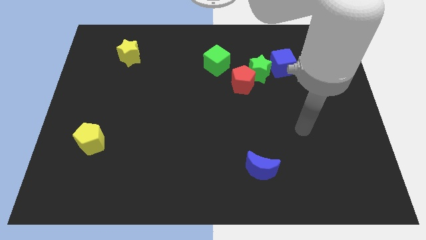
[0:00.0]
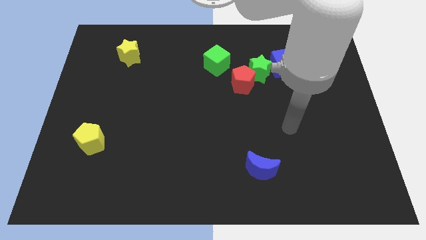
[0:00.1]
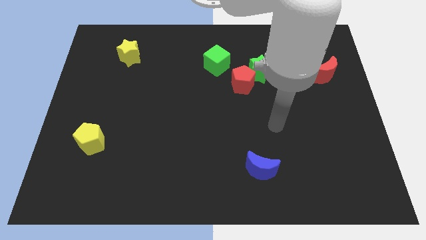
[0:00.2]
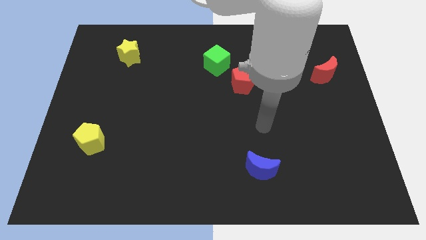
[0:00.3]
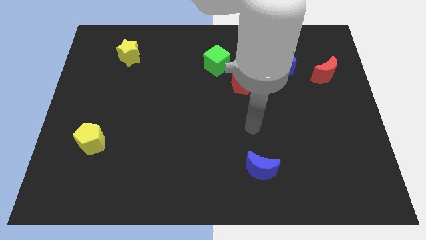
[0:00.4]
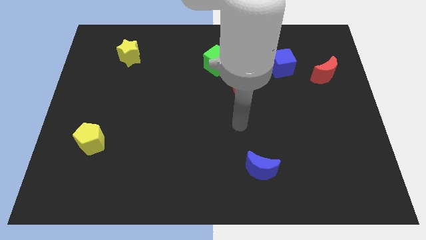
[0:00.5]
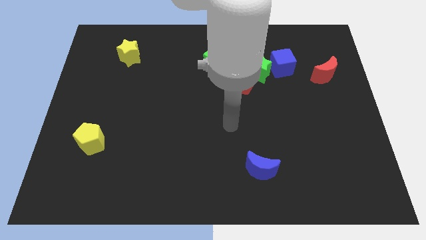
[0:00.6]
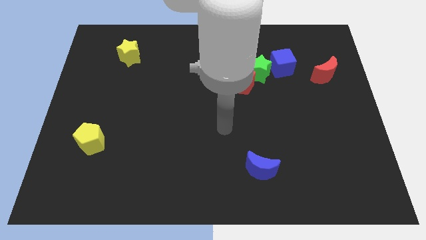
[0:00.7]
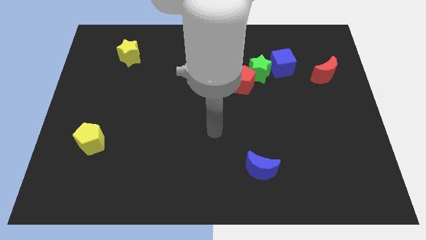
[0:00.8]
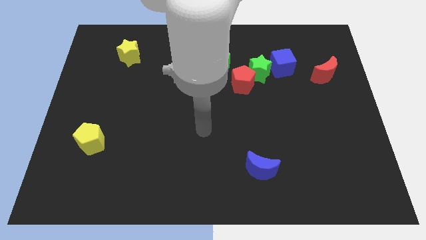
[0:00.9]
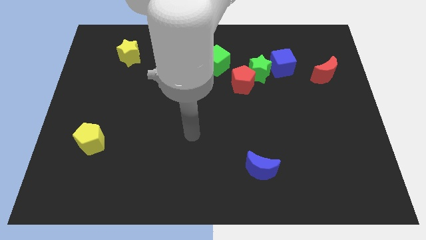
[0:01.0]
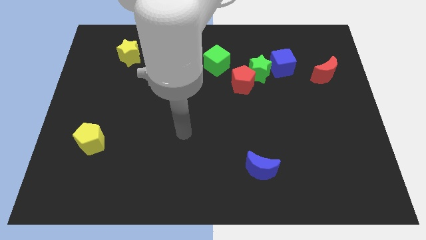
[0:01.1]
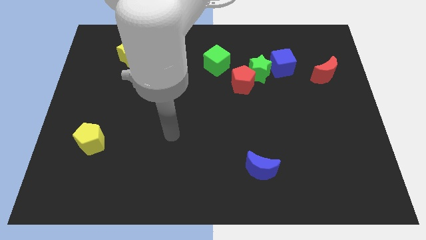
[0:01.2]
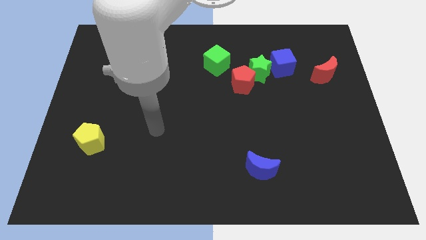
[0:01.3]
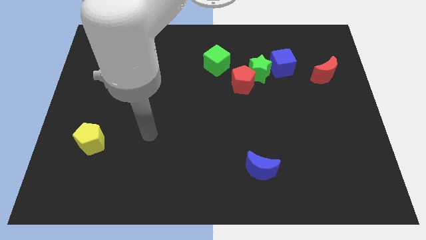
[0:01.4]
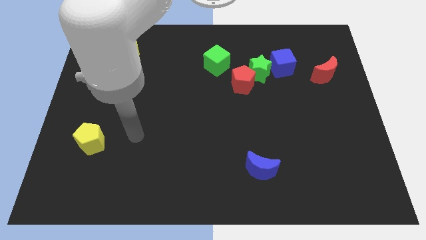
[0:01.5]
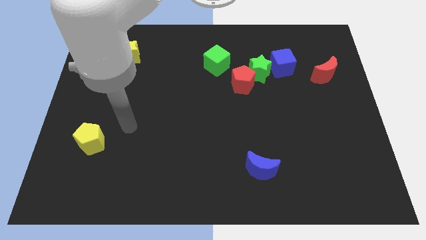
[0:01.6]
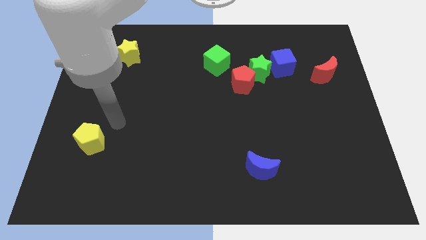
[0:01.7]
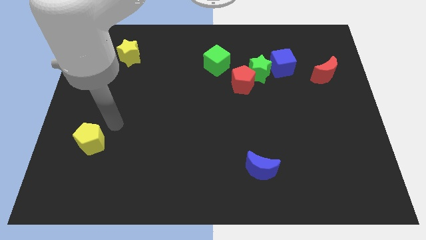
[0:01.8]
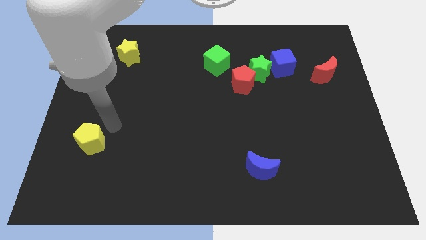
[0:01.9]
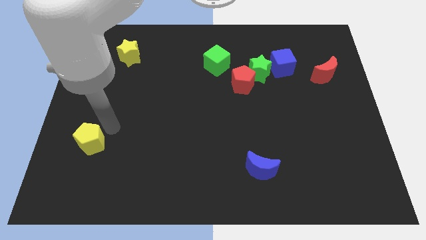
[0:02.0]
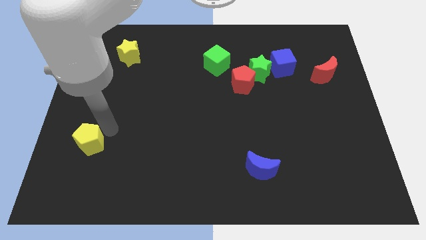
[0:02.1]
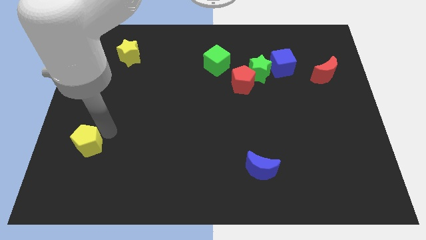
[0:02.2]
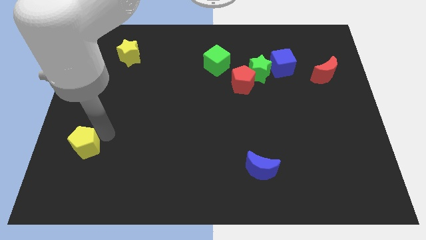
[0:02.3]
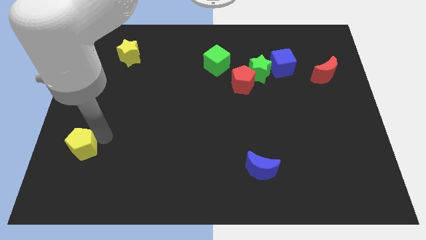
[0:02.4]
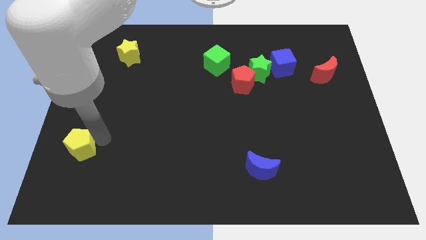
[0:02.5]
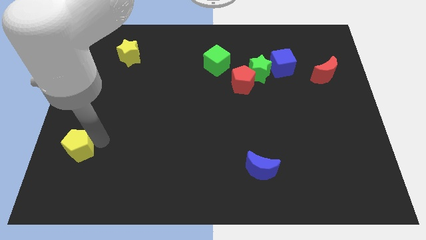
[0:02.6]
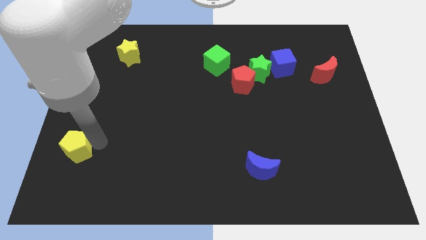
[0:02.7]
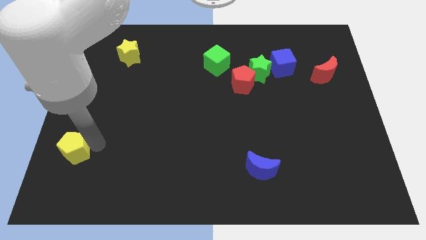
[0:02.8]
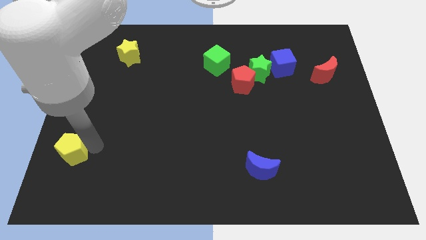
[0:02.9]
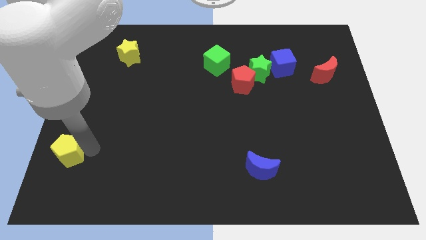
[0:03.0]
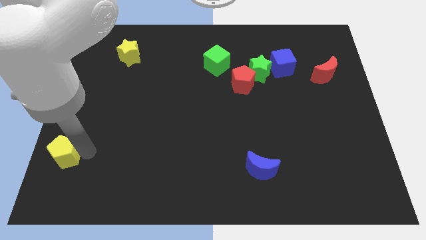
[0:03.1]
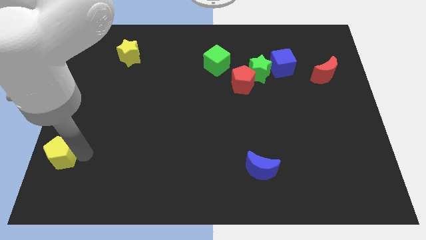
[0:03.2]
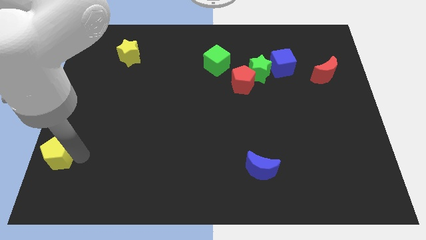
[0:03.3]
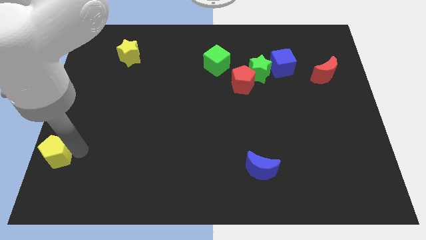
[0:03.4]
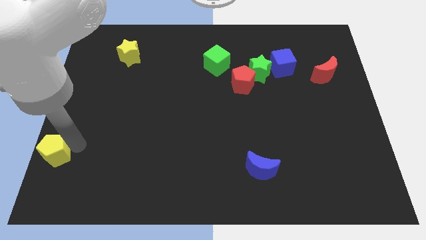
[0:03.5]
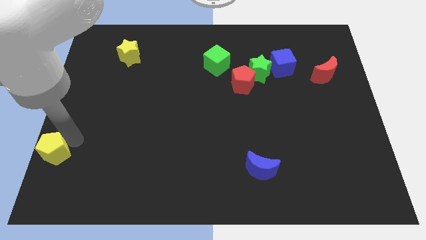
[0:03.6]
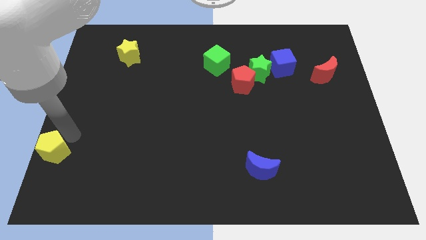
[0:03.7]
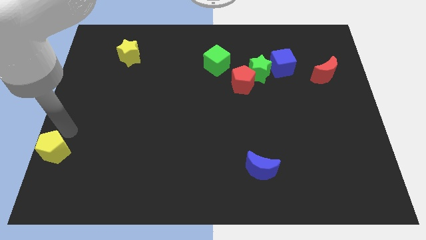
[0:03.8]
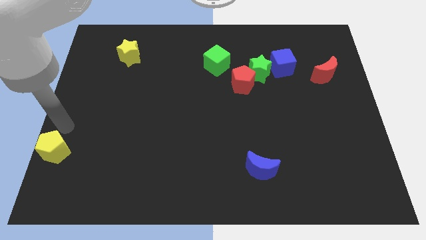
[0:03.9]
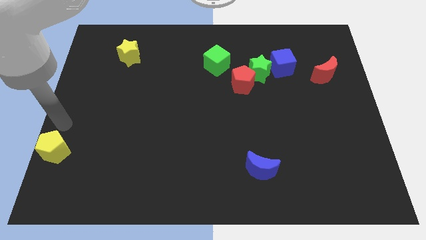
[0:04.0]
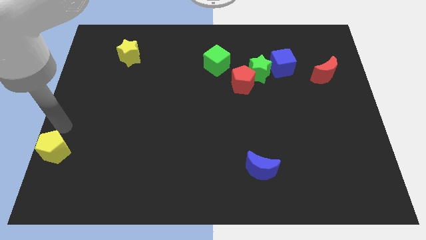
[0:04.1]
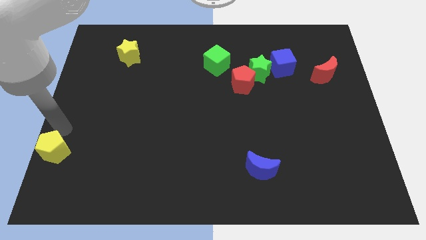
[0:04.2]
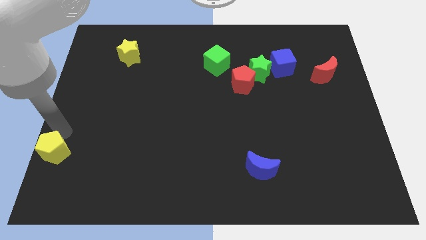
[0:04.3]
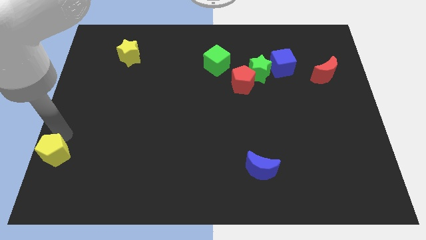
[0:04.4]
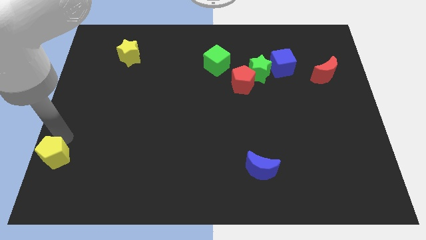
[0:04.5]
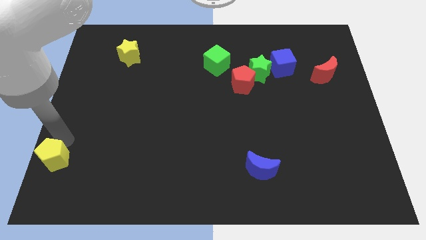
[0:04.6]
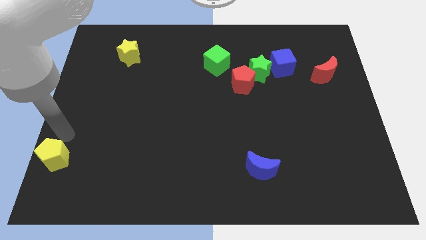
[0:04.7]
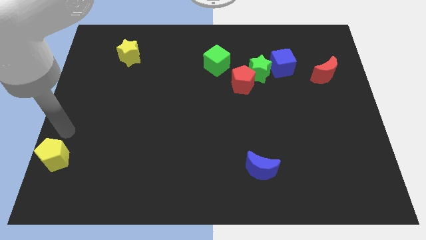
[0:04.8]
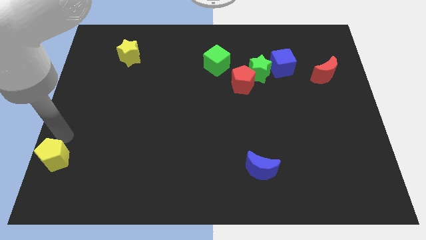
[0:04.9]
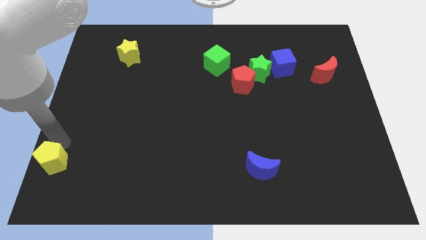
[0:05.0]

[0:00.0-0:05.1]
move the yellow pentagon to the bottom left of the board

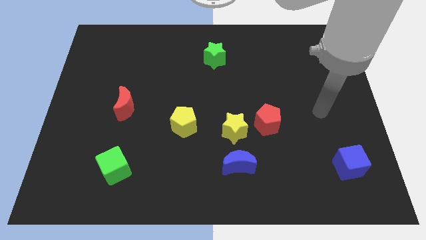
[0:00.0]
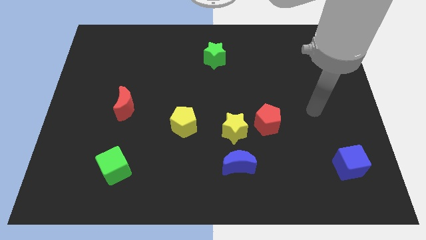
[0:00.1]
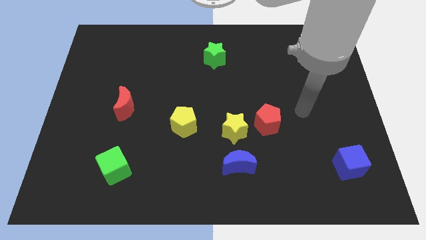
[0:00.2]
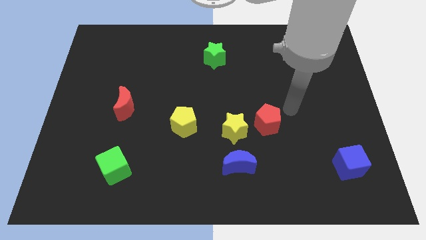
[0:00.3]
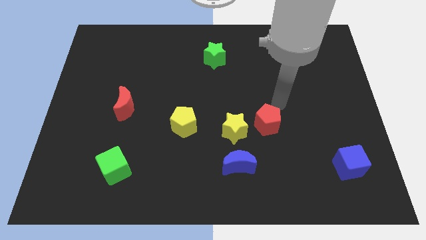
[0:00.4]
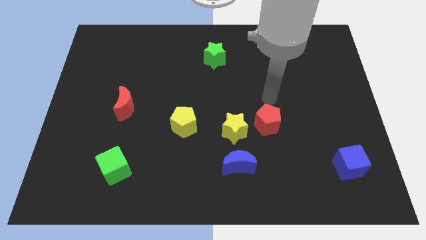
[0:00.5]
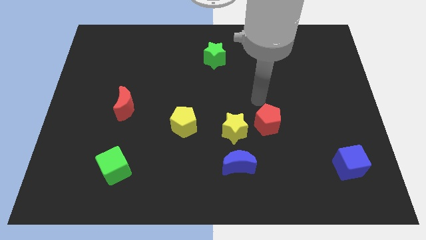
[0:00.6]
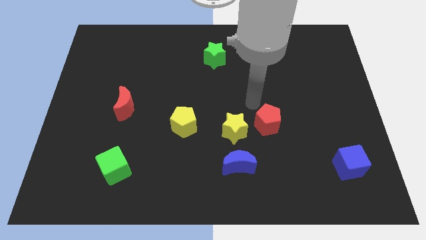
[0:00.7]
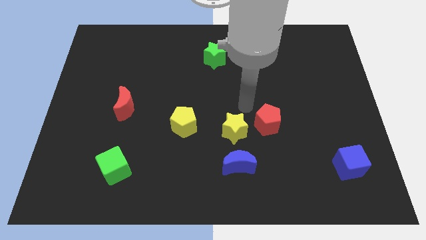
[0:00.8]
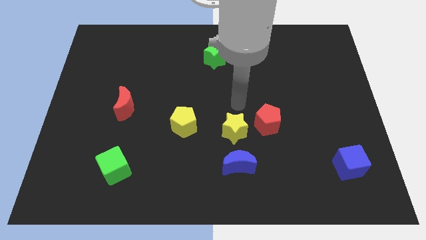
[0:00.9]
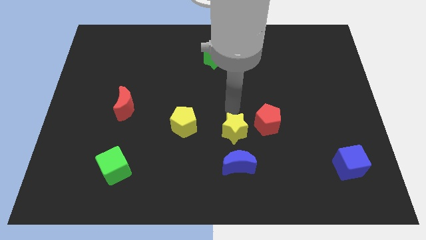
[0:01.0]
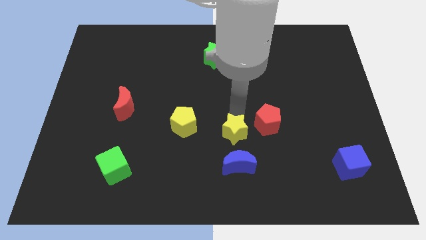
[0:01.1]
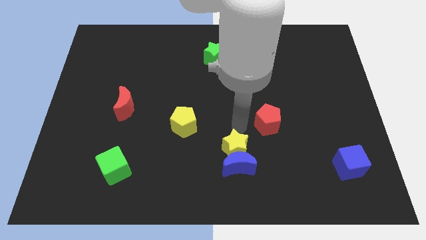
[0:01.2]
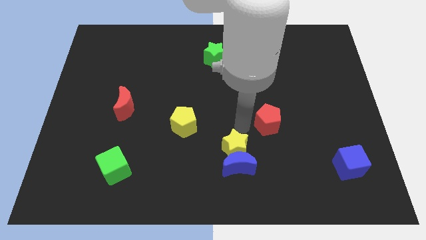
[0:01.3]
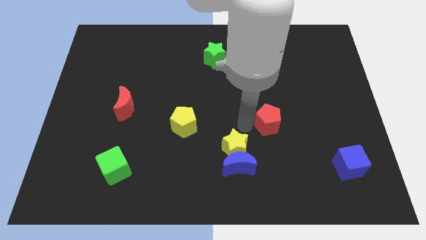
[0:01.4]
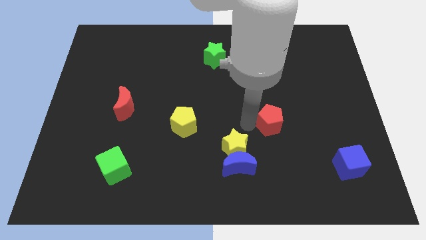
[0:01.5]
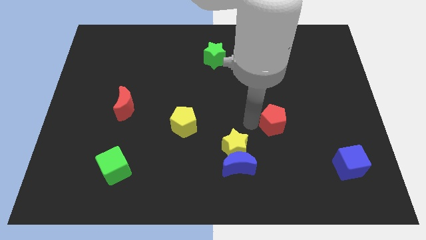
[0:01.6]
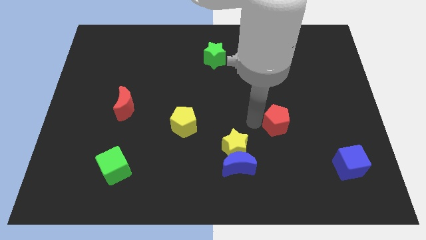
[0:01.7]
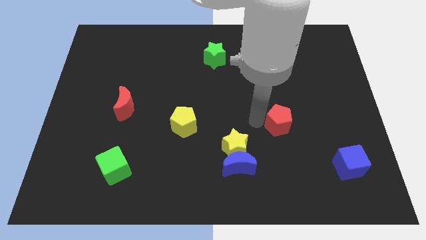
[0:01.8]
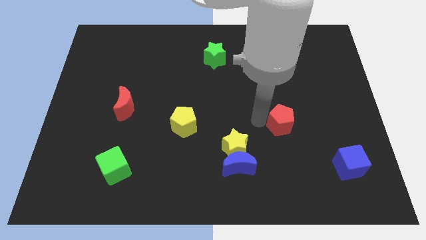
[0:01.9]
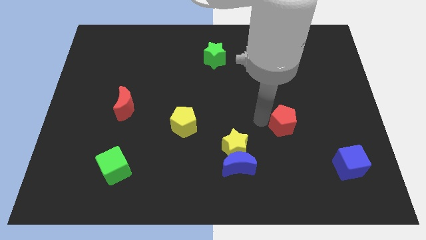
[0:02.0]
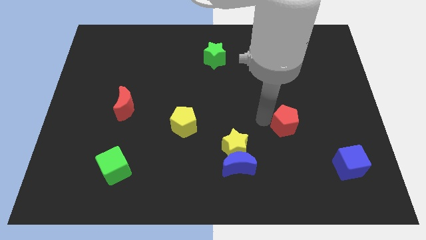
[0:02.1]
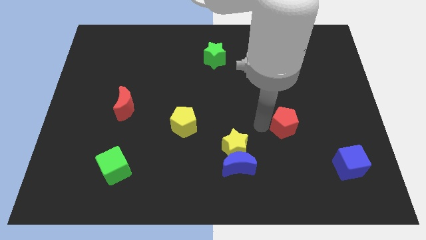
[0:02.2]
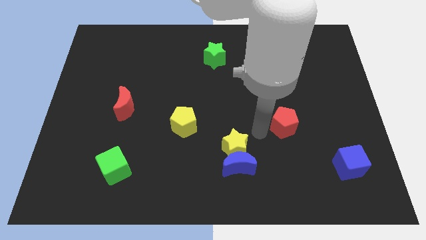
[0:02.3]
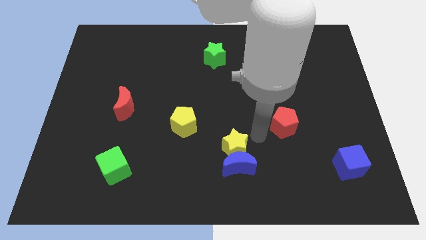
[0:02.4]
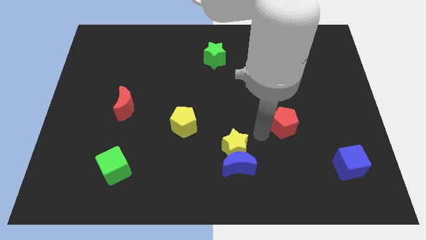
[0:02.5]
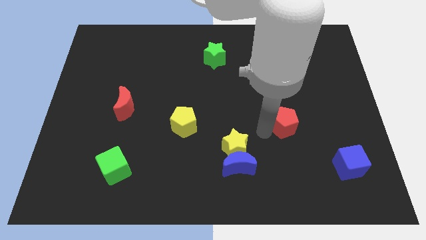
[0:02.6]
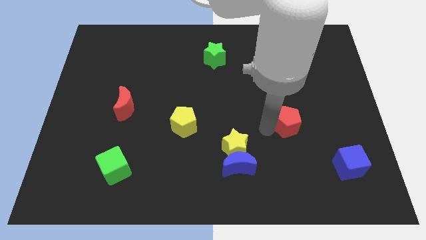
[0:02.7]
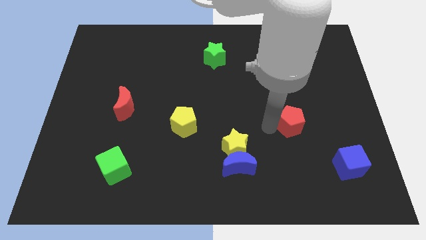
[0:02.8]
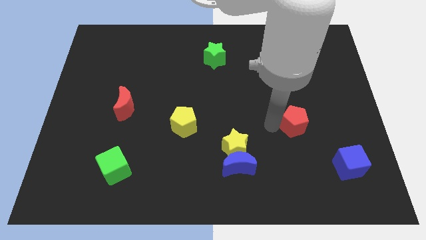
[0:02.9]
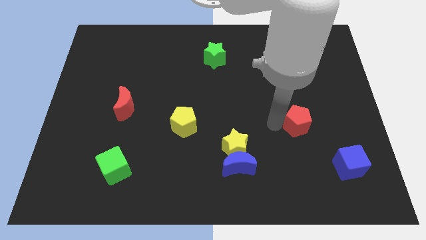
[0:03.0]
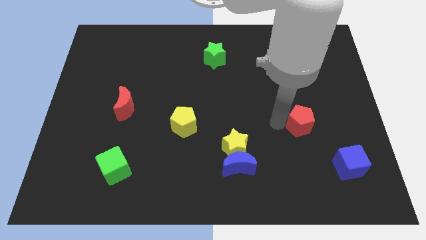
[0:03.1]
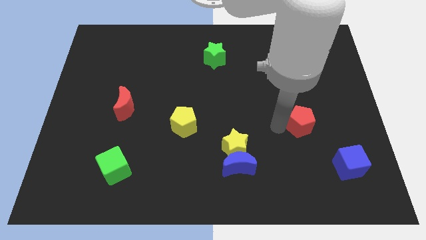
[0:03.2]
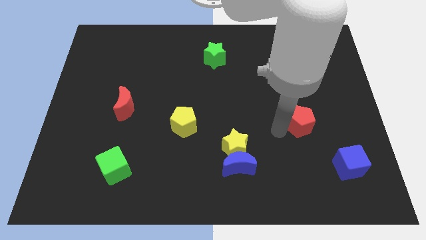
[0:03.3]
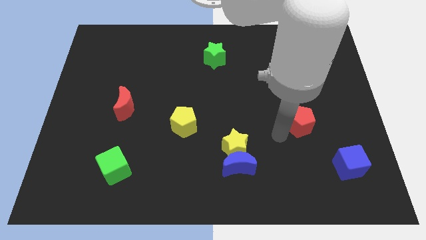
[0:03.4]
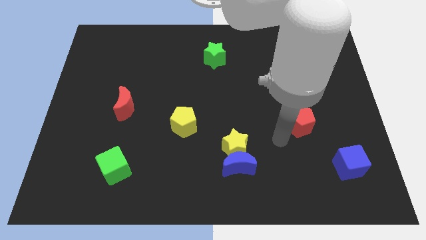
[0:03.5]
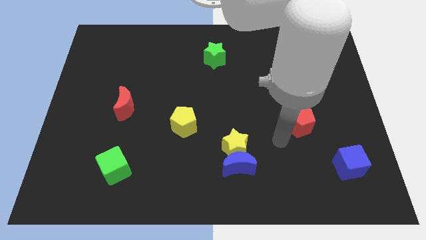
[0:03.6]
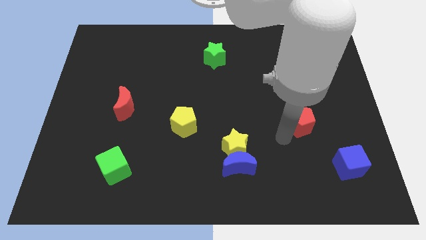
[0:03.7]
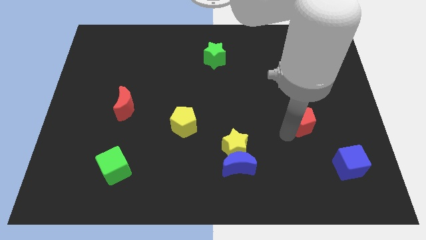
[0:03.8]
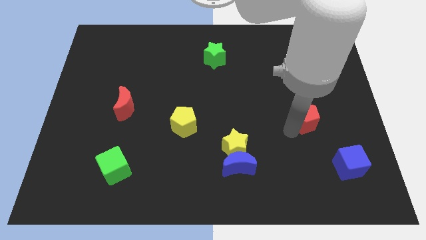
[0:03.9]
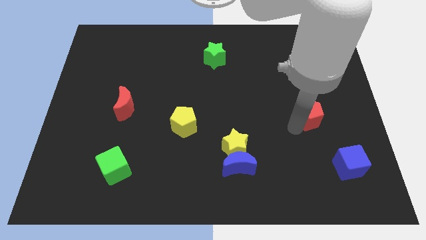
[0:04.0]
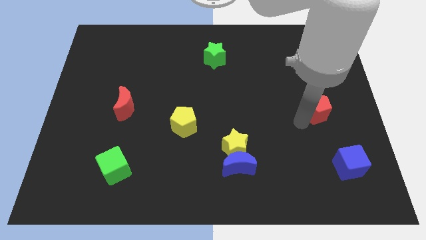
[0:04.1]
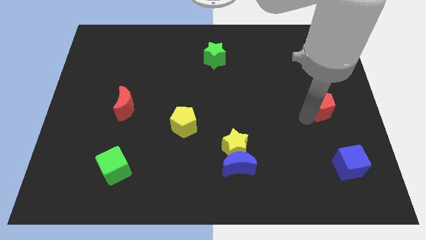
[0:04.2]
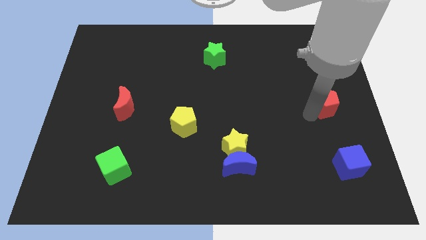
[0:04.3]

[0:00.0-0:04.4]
put the red pentagon to the right side
